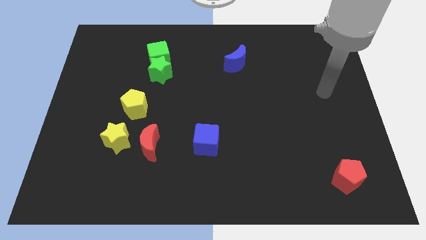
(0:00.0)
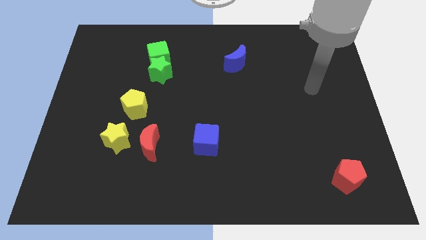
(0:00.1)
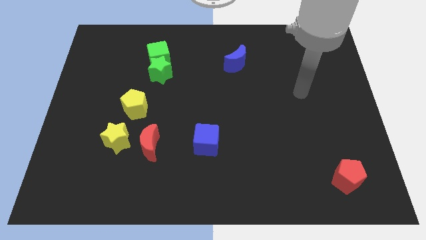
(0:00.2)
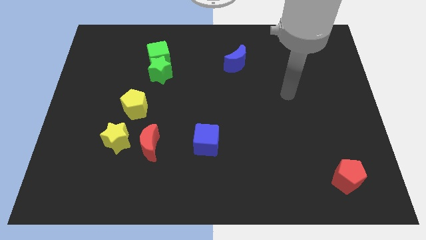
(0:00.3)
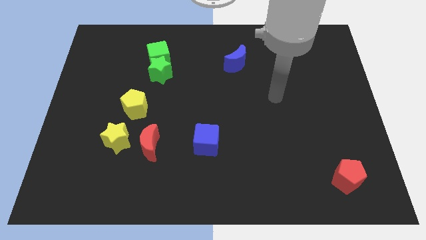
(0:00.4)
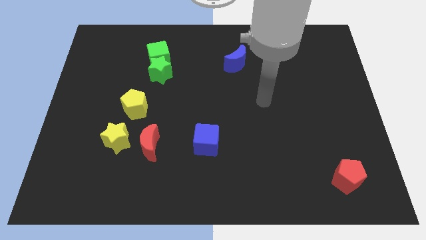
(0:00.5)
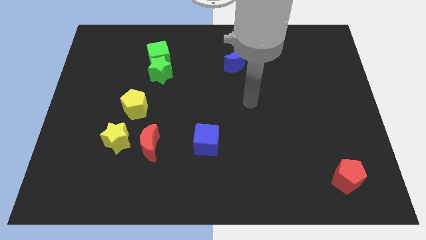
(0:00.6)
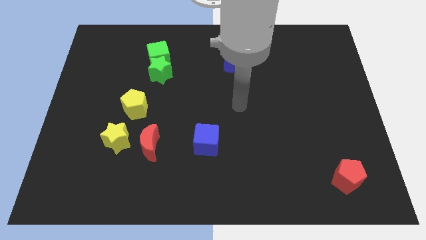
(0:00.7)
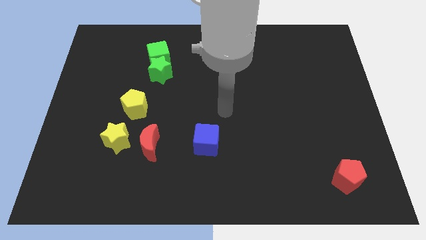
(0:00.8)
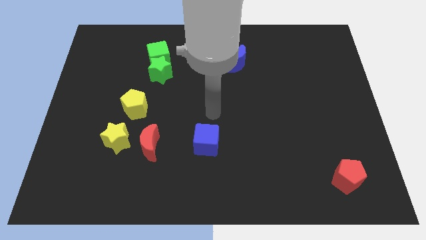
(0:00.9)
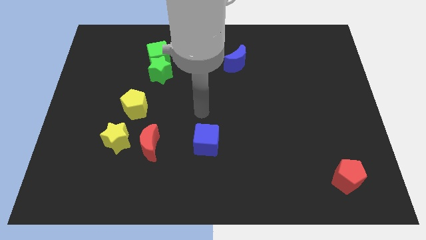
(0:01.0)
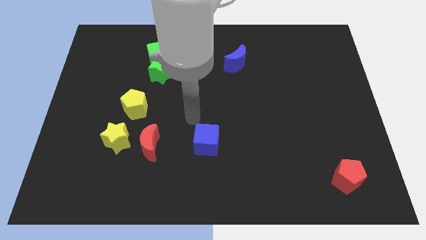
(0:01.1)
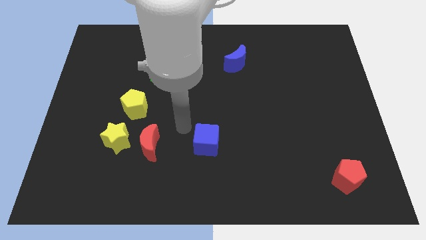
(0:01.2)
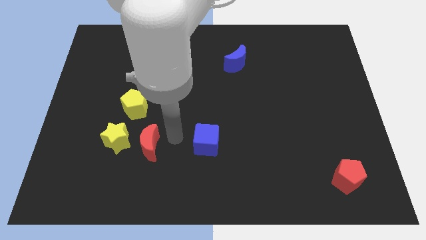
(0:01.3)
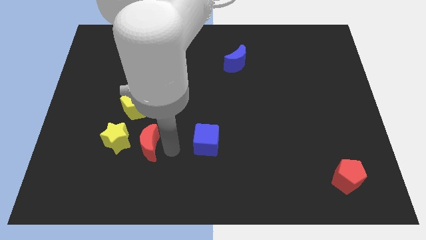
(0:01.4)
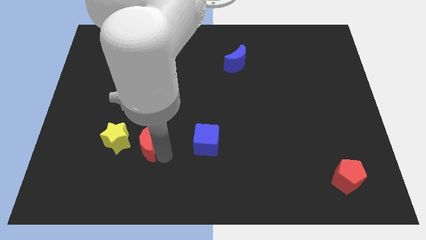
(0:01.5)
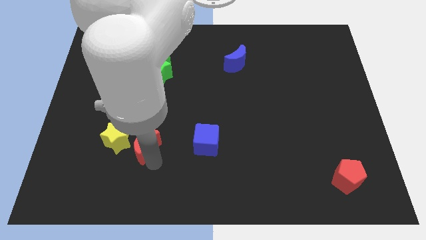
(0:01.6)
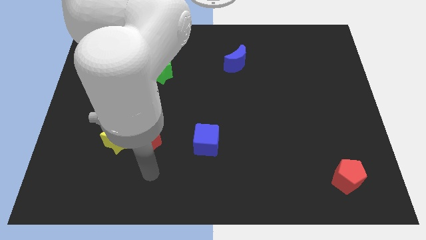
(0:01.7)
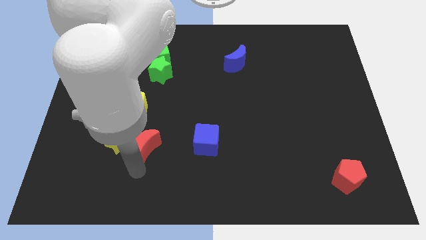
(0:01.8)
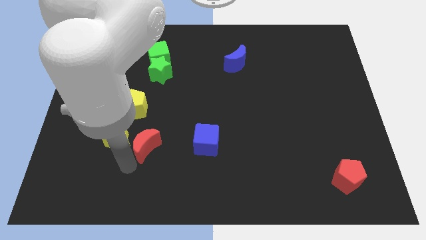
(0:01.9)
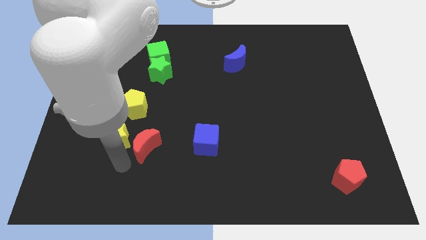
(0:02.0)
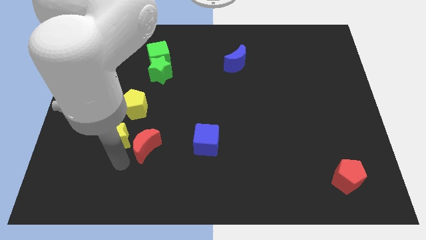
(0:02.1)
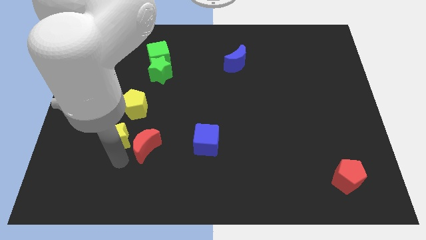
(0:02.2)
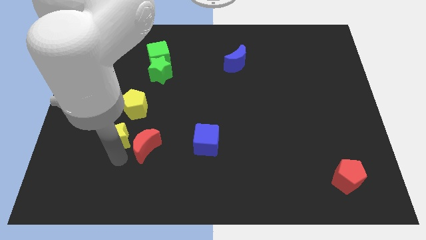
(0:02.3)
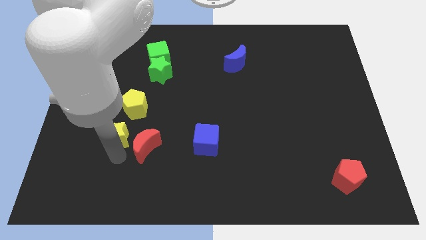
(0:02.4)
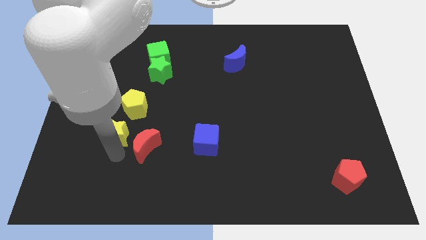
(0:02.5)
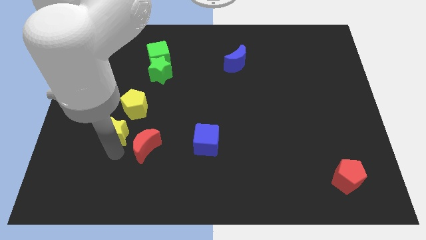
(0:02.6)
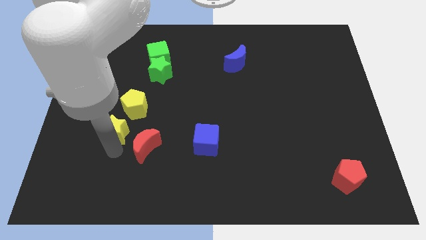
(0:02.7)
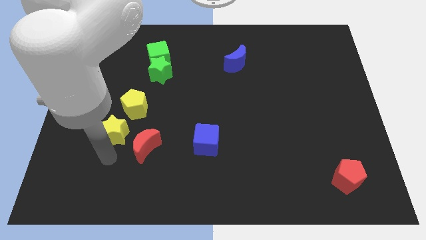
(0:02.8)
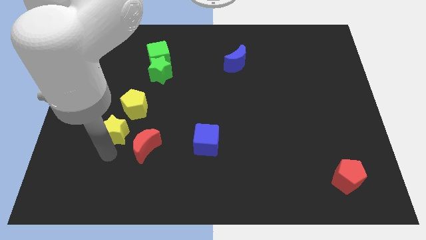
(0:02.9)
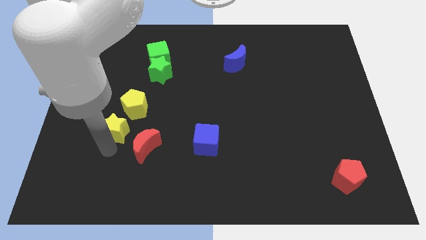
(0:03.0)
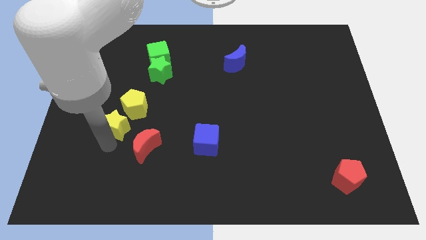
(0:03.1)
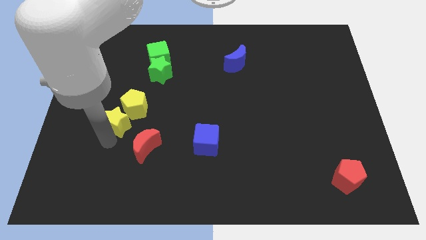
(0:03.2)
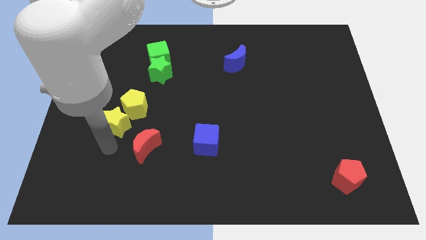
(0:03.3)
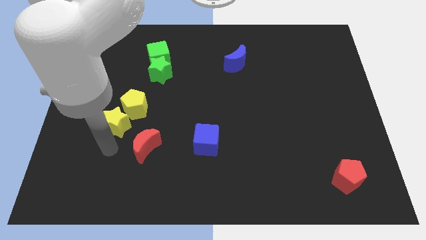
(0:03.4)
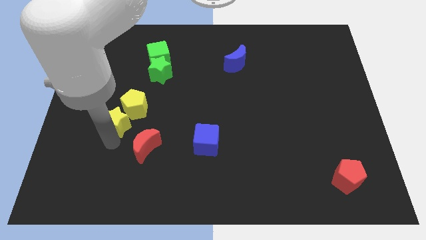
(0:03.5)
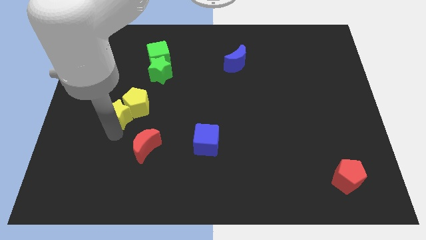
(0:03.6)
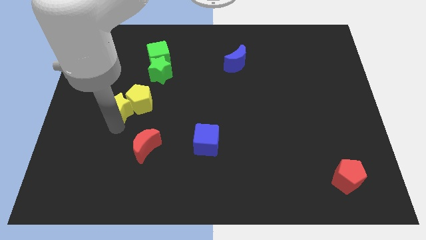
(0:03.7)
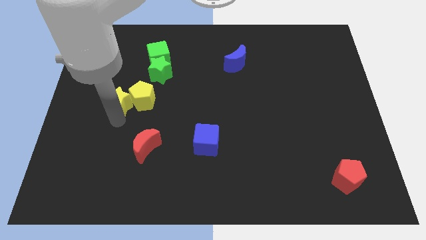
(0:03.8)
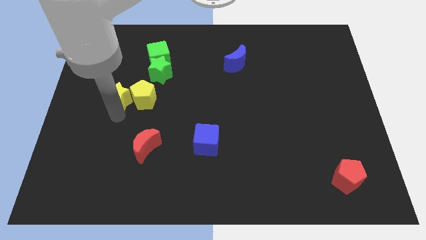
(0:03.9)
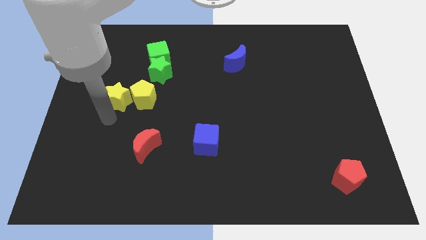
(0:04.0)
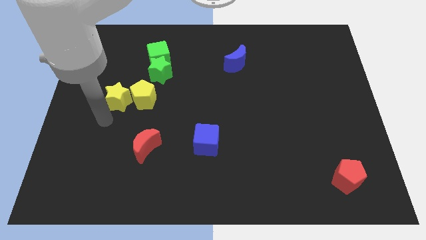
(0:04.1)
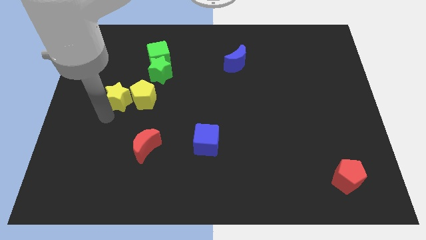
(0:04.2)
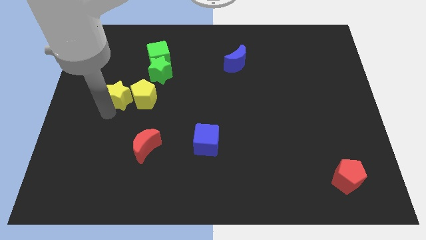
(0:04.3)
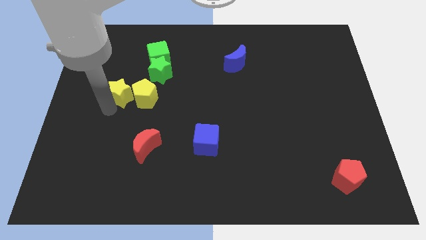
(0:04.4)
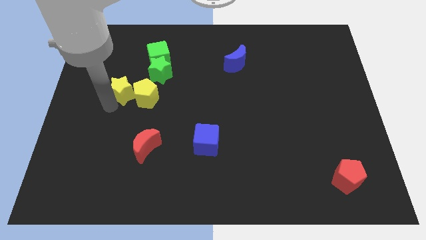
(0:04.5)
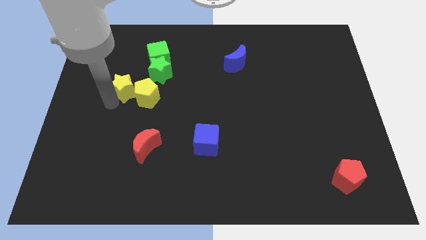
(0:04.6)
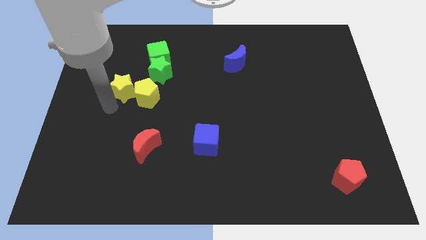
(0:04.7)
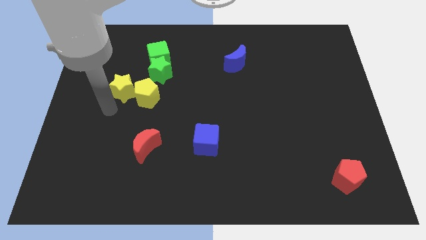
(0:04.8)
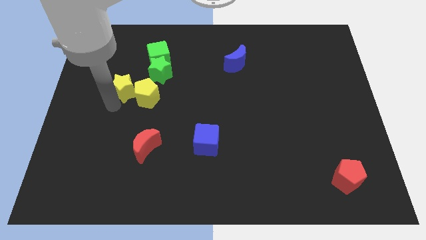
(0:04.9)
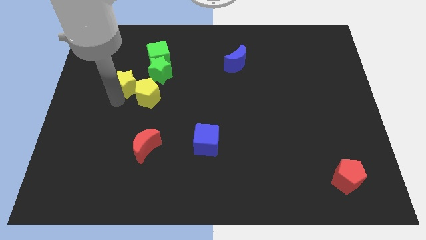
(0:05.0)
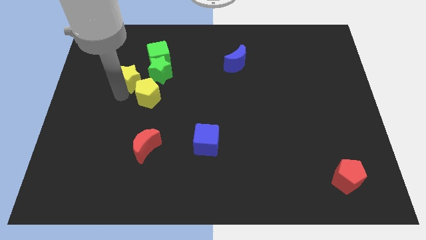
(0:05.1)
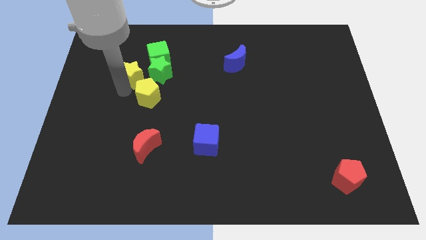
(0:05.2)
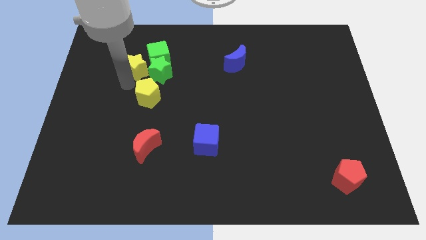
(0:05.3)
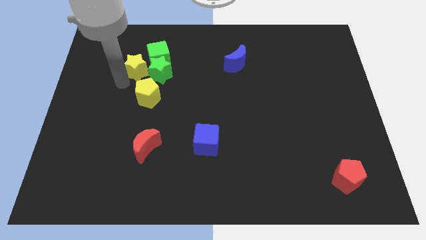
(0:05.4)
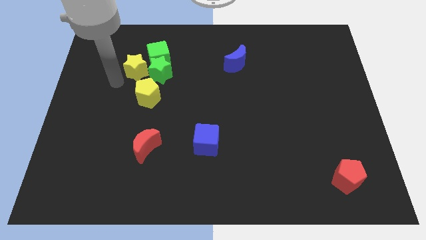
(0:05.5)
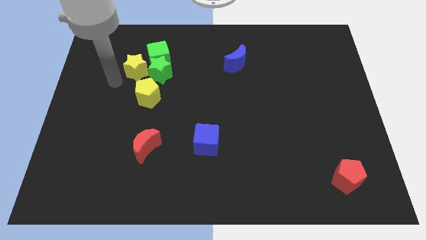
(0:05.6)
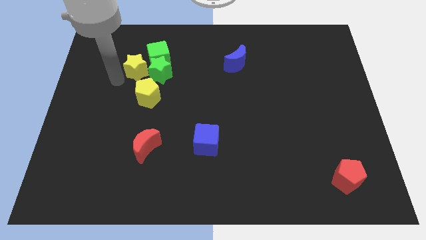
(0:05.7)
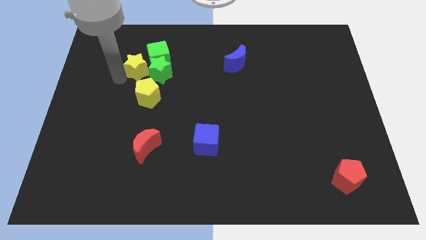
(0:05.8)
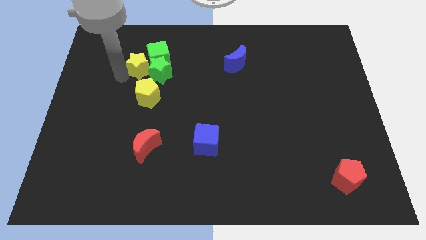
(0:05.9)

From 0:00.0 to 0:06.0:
push the yellow star to the green cube

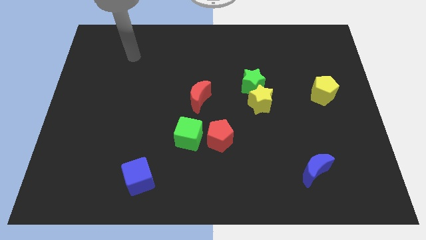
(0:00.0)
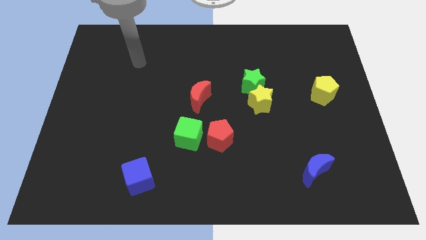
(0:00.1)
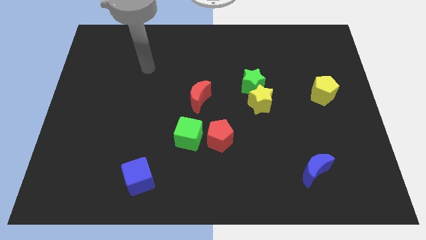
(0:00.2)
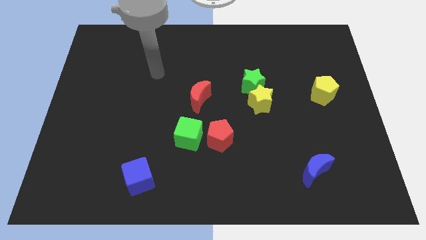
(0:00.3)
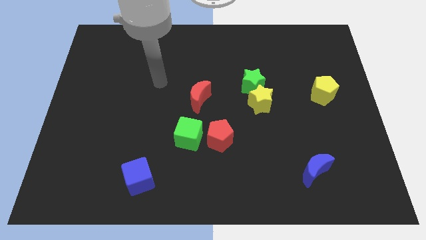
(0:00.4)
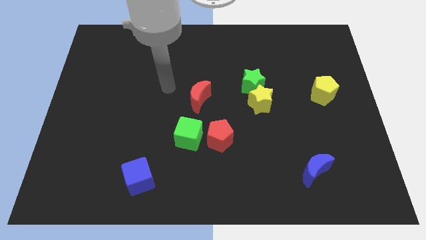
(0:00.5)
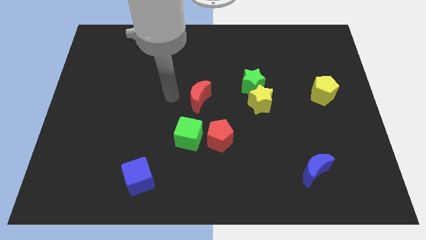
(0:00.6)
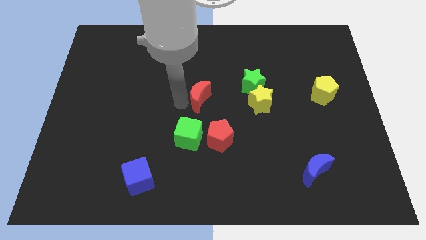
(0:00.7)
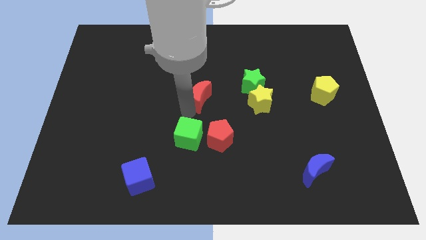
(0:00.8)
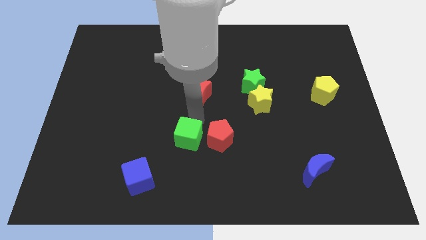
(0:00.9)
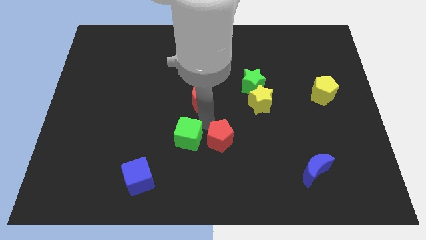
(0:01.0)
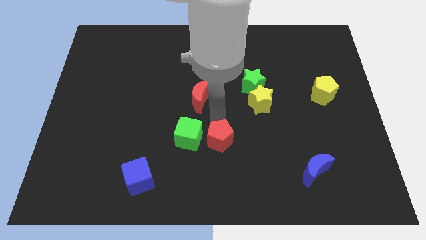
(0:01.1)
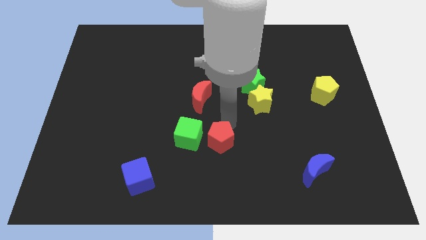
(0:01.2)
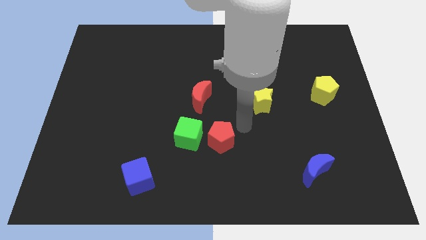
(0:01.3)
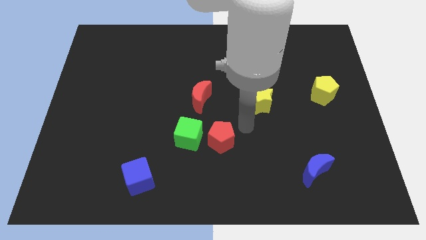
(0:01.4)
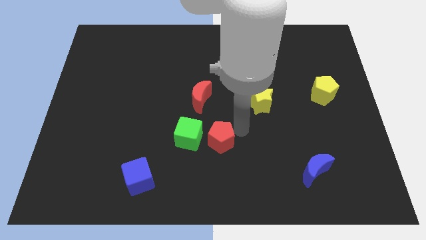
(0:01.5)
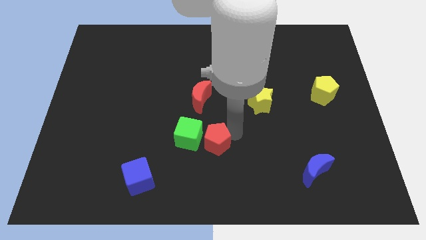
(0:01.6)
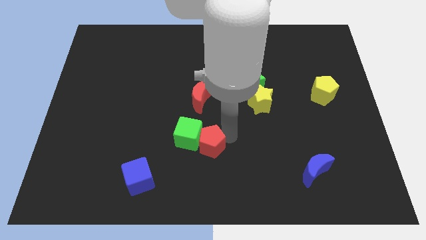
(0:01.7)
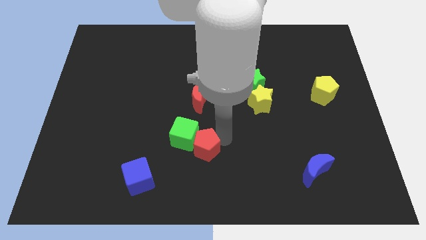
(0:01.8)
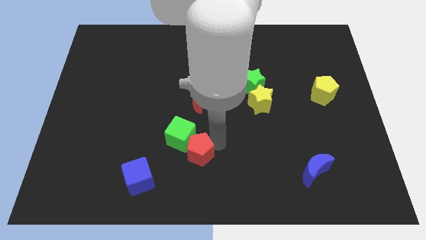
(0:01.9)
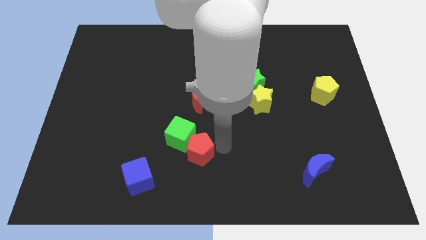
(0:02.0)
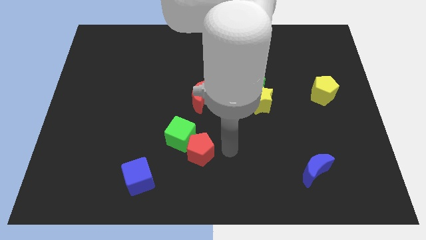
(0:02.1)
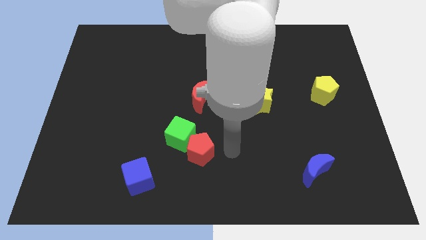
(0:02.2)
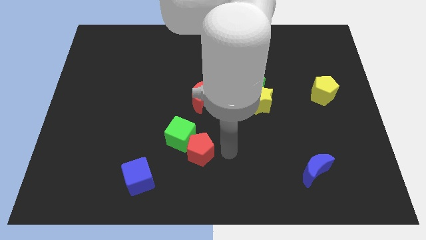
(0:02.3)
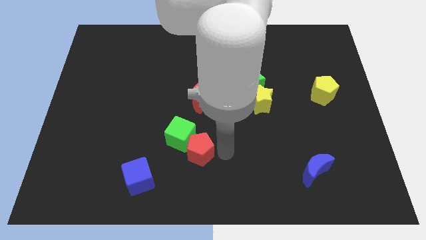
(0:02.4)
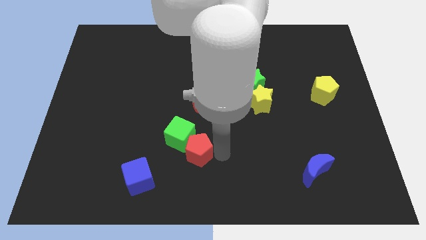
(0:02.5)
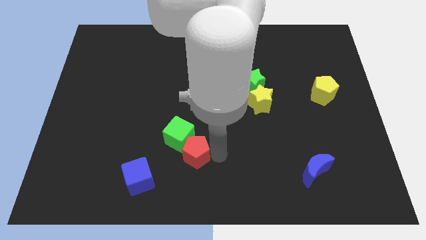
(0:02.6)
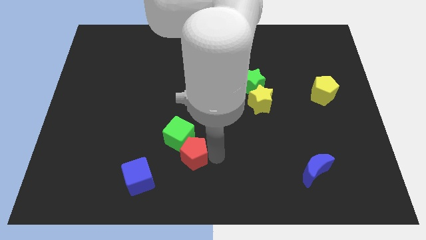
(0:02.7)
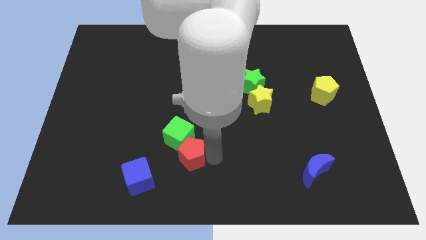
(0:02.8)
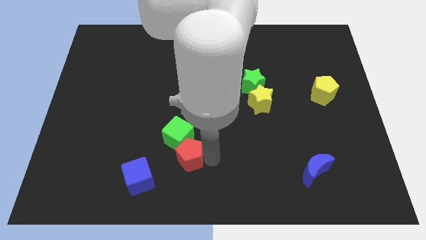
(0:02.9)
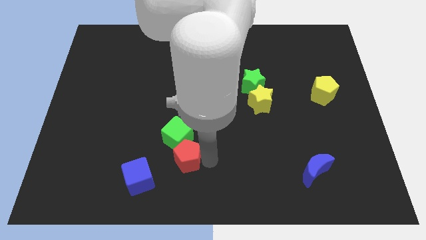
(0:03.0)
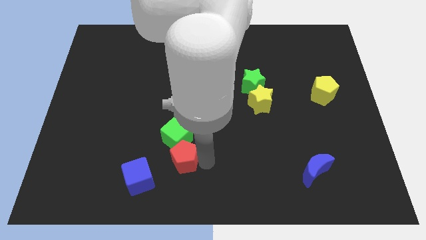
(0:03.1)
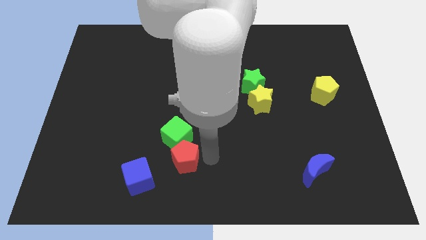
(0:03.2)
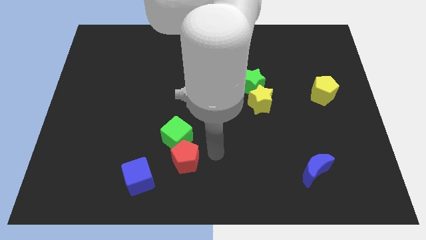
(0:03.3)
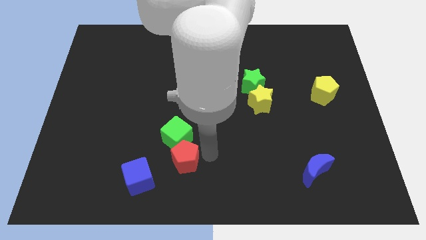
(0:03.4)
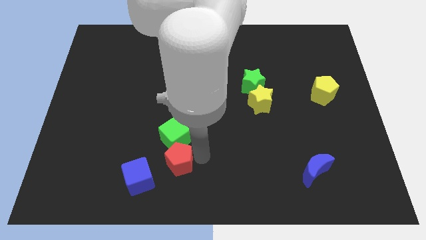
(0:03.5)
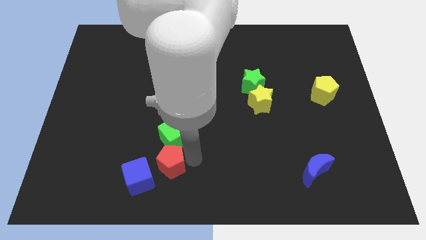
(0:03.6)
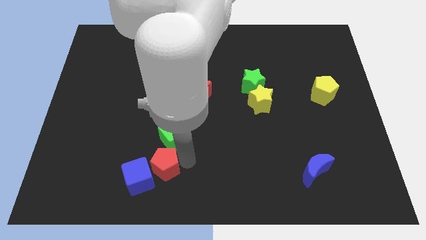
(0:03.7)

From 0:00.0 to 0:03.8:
move the red pentagon towards the blue cube
